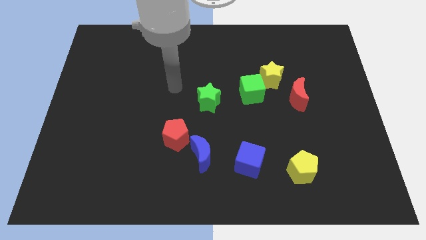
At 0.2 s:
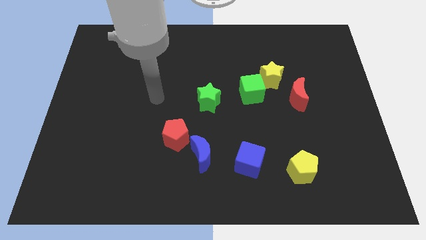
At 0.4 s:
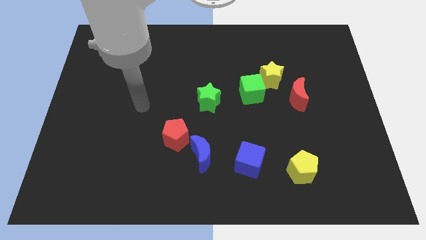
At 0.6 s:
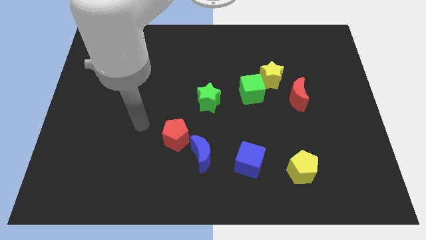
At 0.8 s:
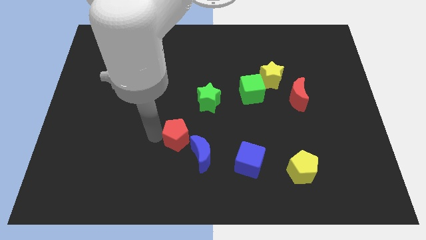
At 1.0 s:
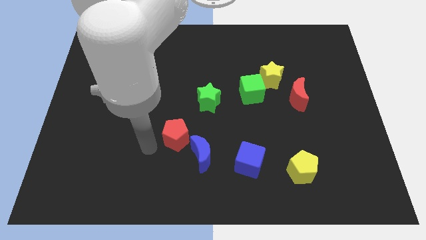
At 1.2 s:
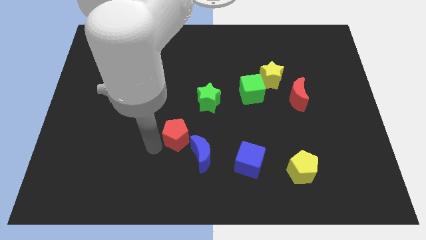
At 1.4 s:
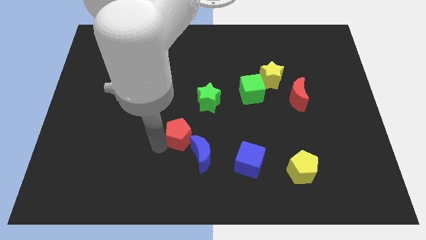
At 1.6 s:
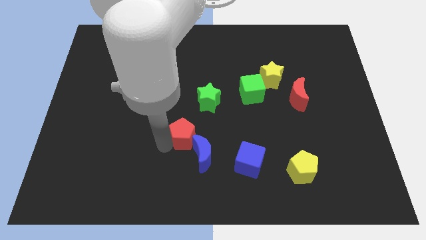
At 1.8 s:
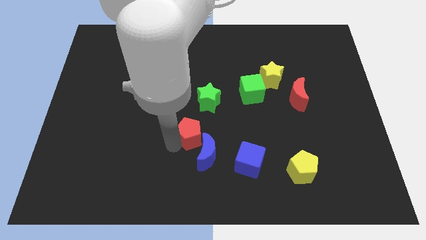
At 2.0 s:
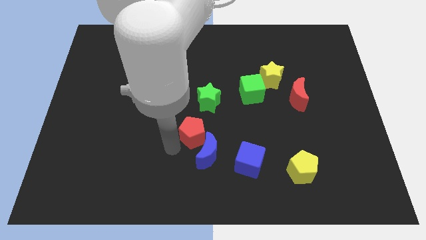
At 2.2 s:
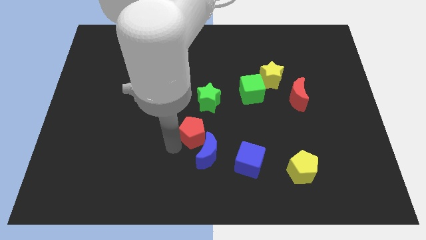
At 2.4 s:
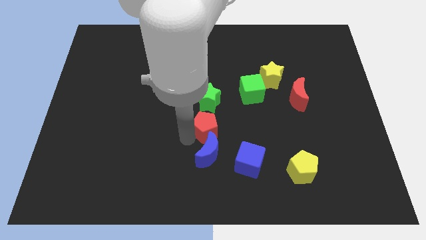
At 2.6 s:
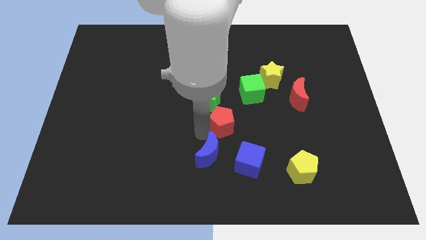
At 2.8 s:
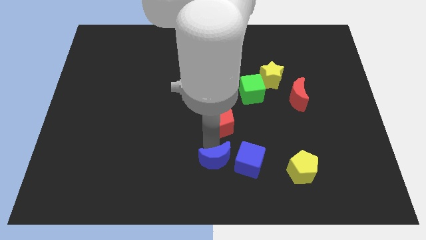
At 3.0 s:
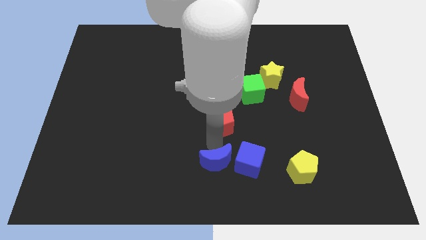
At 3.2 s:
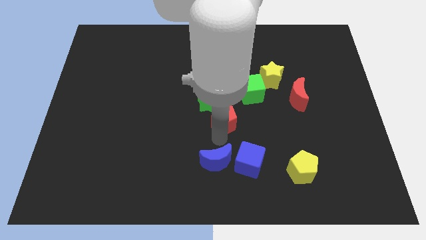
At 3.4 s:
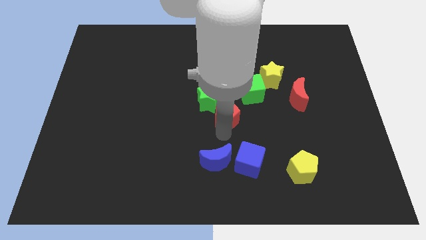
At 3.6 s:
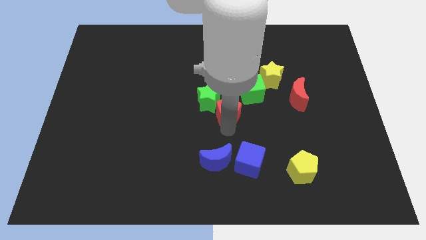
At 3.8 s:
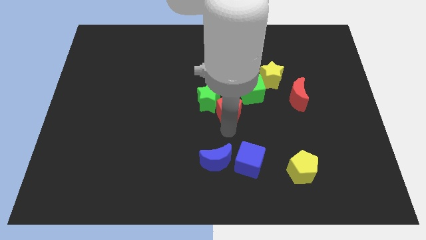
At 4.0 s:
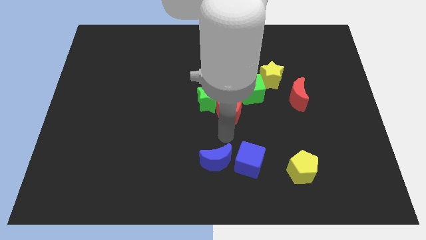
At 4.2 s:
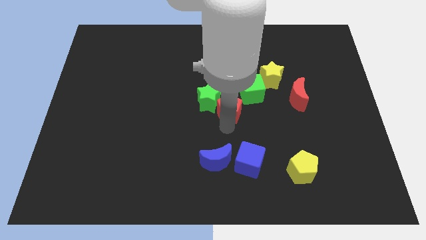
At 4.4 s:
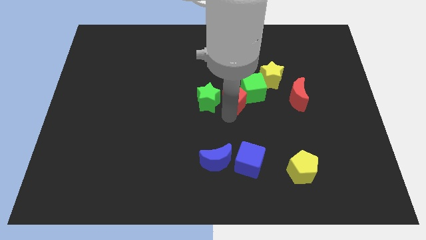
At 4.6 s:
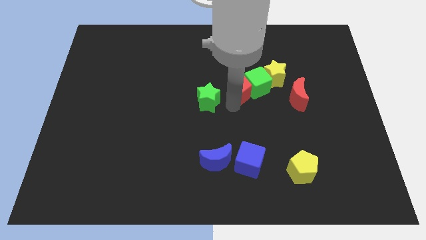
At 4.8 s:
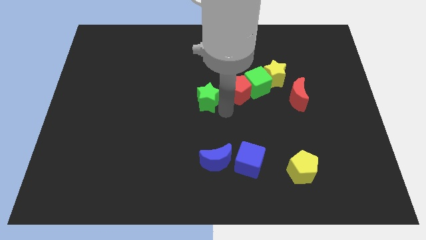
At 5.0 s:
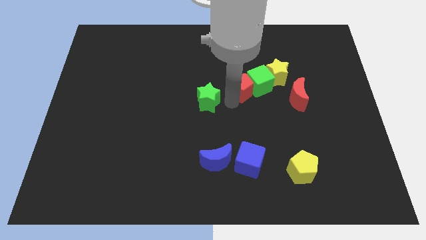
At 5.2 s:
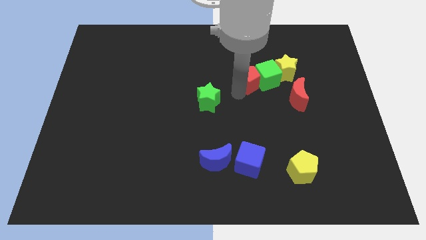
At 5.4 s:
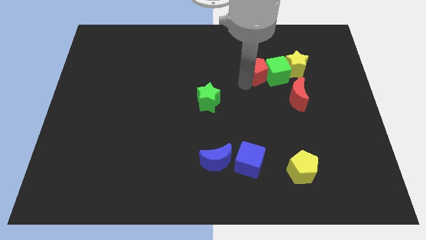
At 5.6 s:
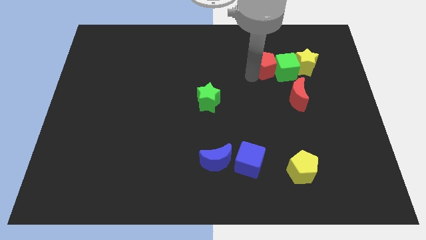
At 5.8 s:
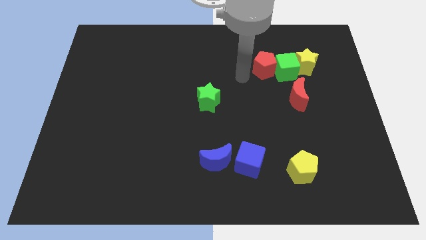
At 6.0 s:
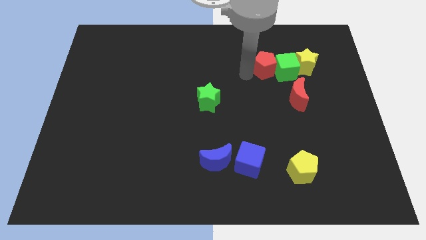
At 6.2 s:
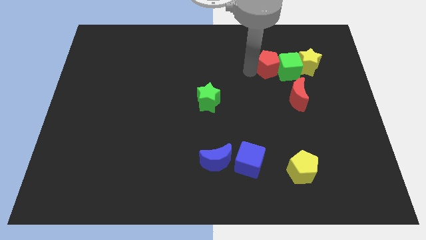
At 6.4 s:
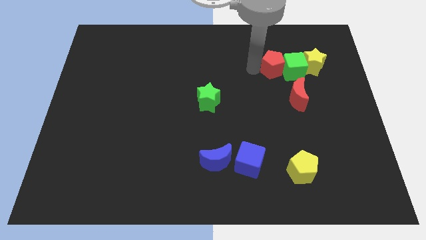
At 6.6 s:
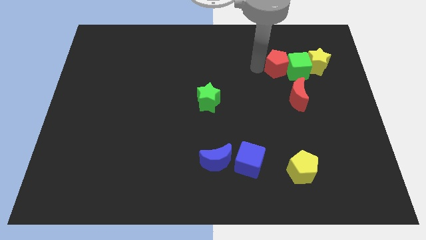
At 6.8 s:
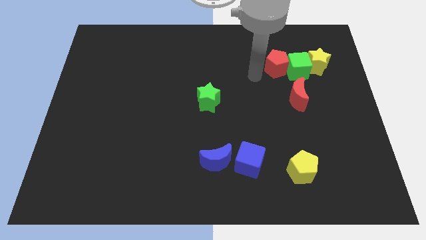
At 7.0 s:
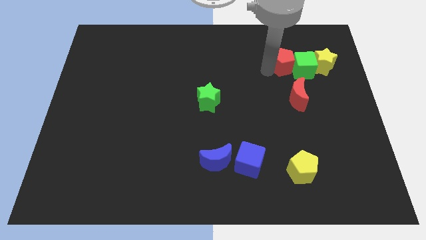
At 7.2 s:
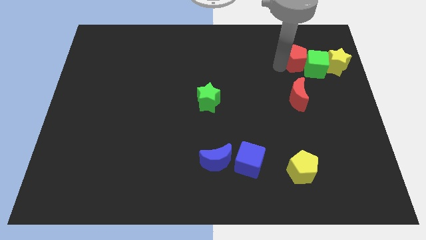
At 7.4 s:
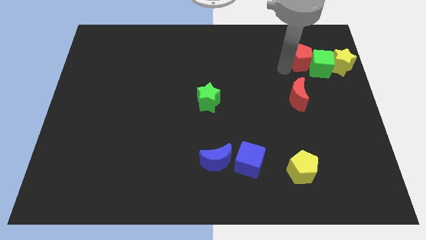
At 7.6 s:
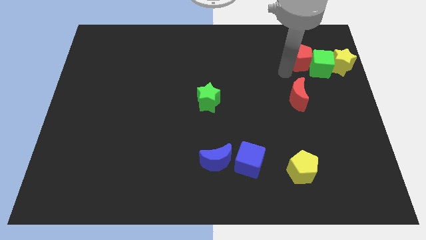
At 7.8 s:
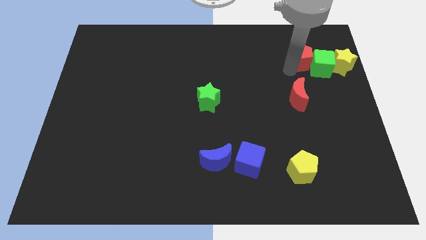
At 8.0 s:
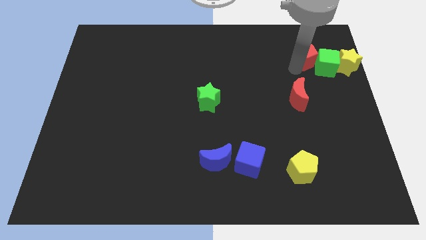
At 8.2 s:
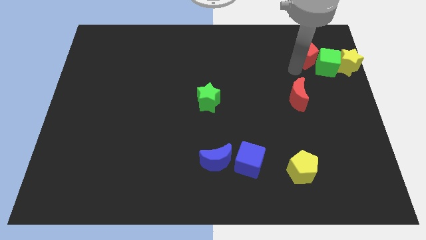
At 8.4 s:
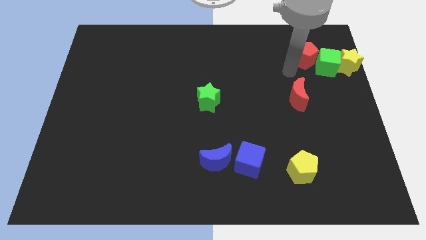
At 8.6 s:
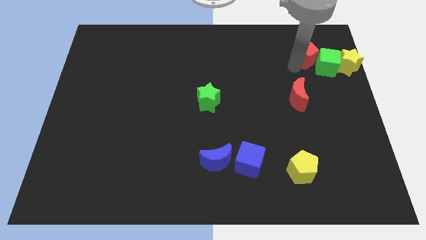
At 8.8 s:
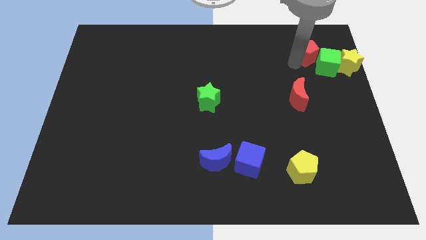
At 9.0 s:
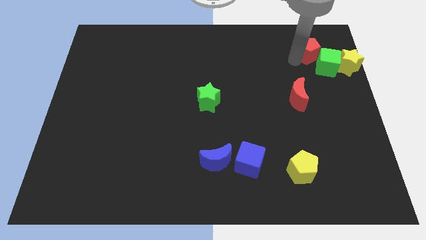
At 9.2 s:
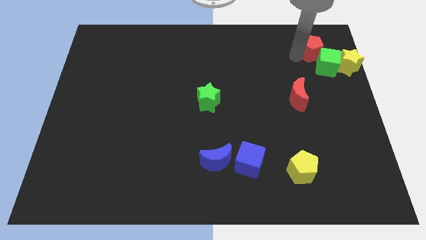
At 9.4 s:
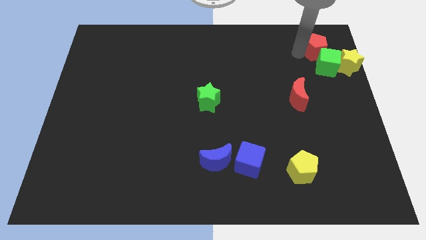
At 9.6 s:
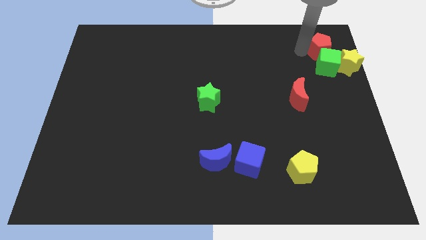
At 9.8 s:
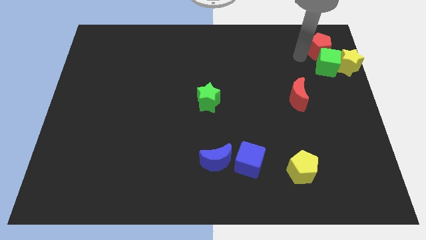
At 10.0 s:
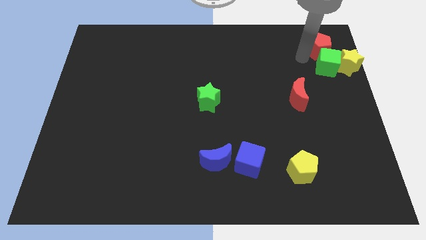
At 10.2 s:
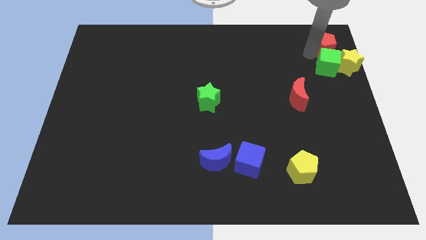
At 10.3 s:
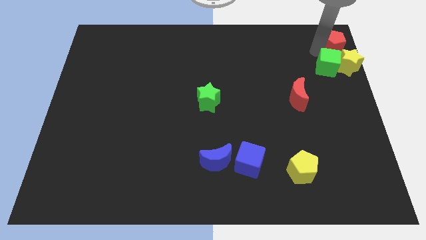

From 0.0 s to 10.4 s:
slide the red pentagon to the upper right corner

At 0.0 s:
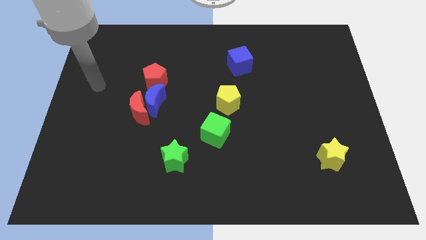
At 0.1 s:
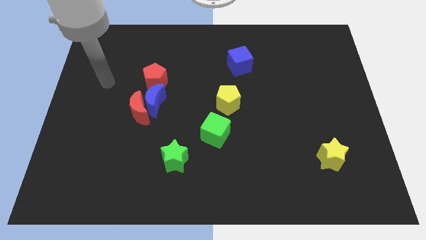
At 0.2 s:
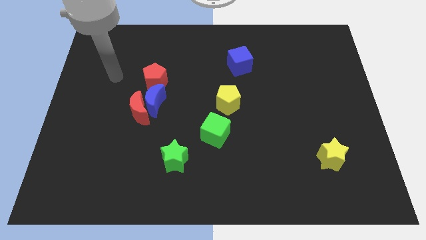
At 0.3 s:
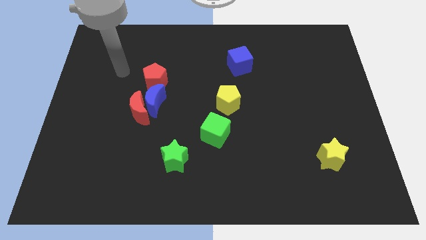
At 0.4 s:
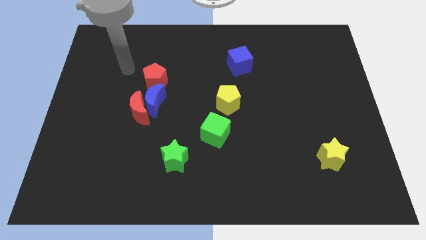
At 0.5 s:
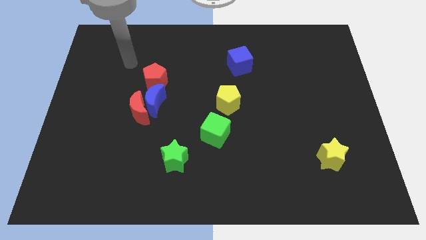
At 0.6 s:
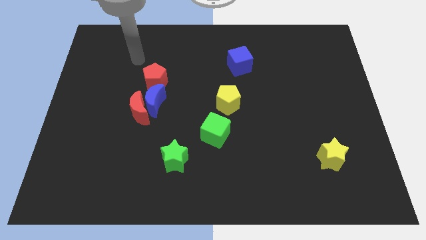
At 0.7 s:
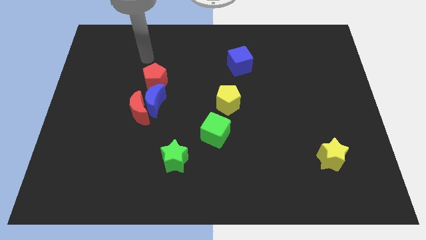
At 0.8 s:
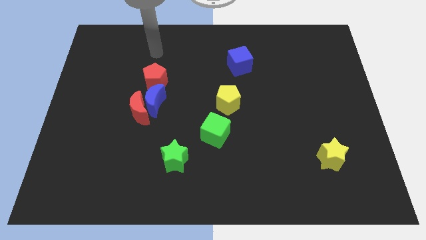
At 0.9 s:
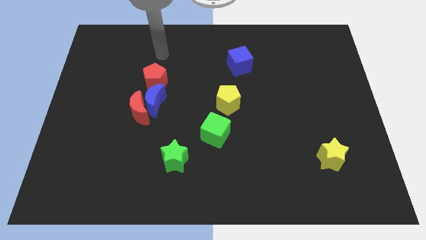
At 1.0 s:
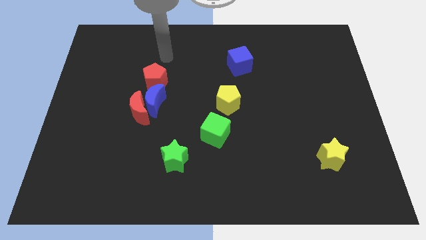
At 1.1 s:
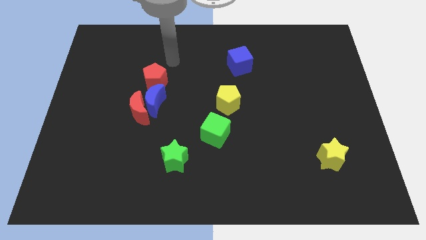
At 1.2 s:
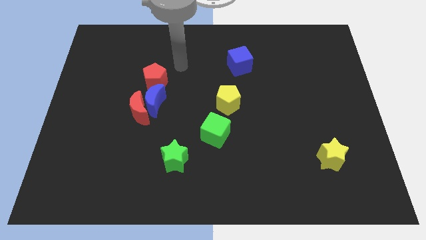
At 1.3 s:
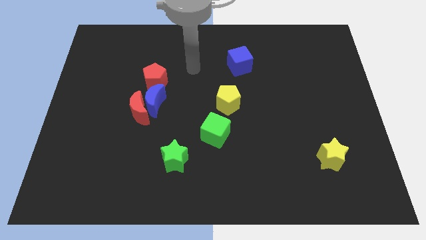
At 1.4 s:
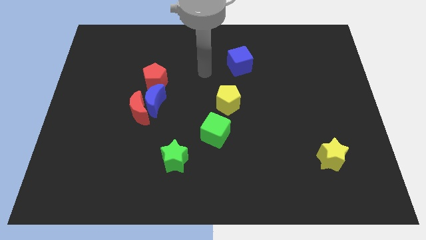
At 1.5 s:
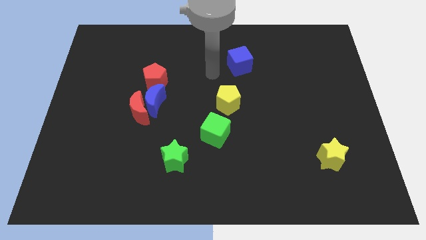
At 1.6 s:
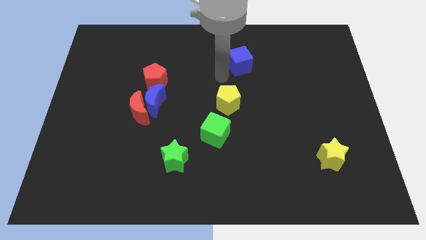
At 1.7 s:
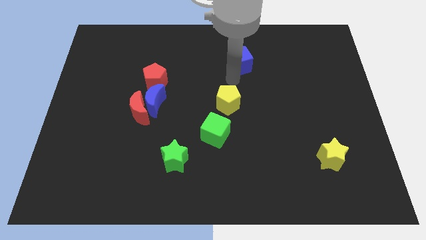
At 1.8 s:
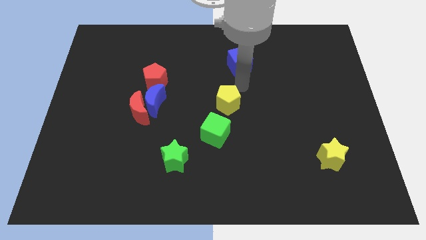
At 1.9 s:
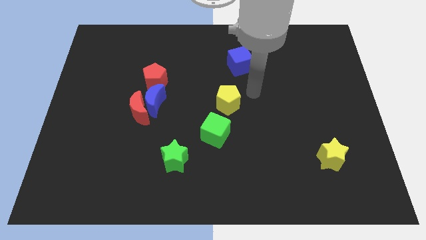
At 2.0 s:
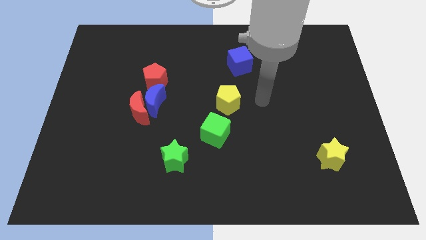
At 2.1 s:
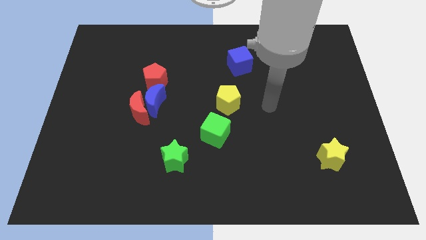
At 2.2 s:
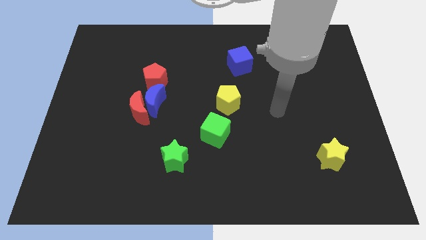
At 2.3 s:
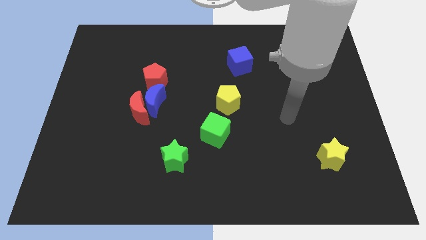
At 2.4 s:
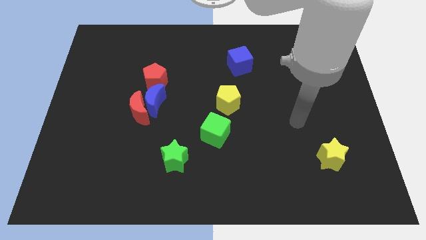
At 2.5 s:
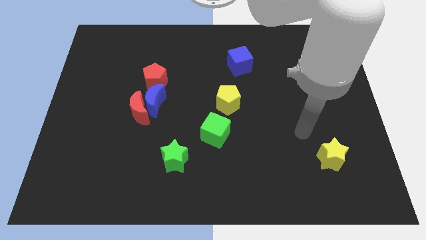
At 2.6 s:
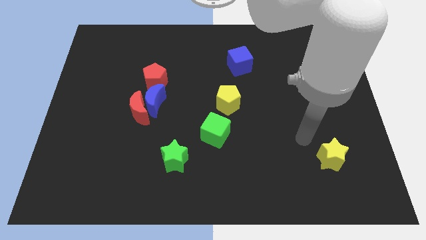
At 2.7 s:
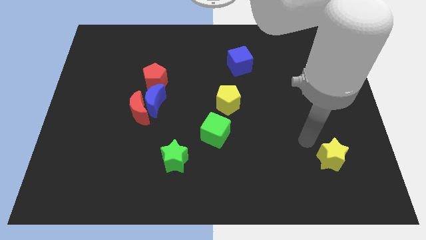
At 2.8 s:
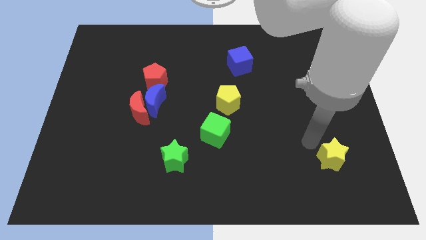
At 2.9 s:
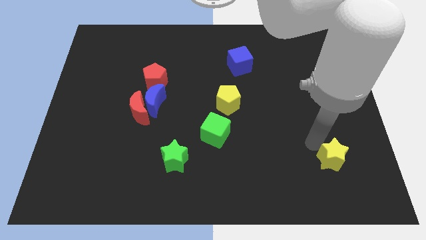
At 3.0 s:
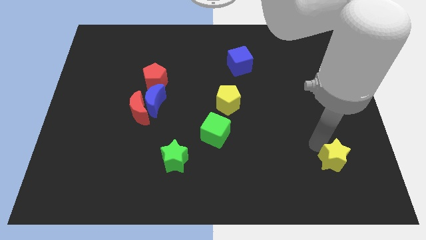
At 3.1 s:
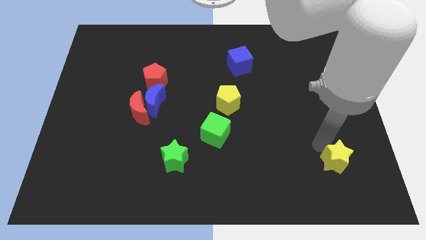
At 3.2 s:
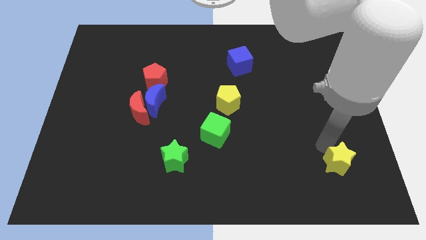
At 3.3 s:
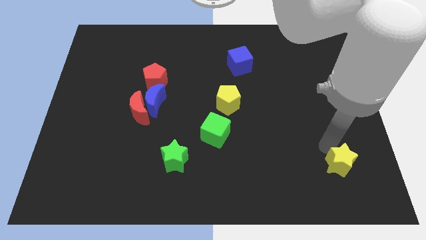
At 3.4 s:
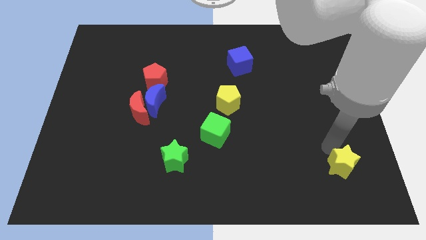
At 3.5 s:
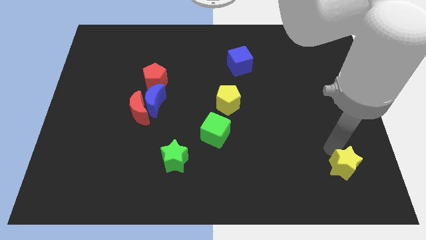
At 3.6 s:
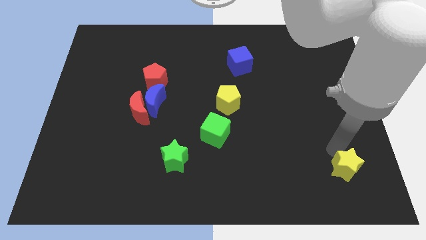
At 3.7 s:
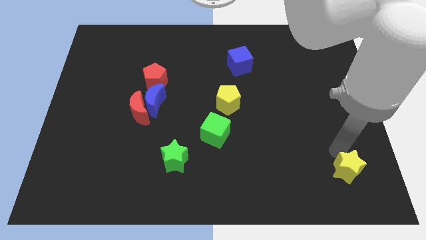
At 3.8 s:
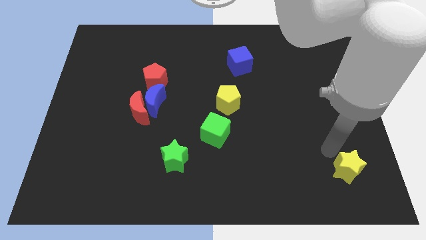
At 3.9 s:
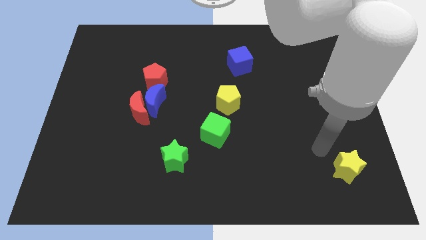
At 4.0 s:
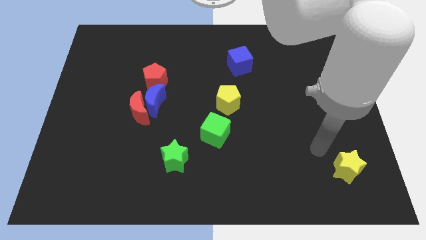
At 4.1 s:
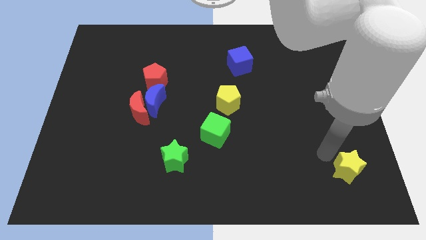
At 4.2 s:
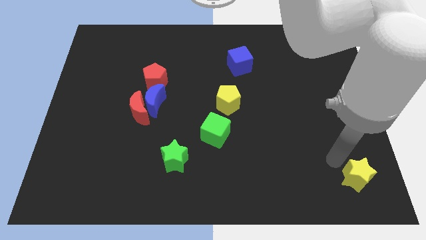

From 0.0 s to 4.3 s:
put the yellow star to the bottom right corner
